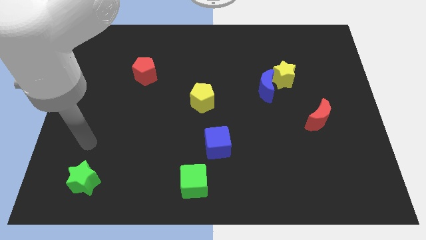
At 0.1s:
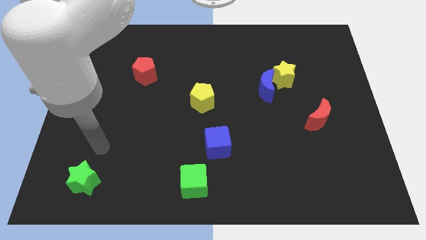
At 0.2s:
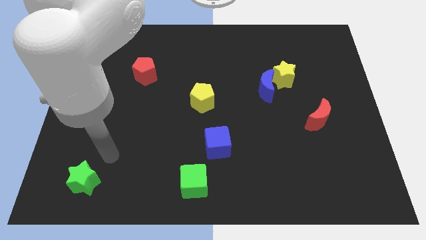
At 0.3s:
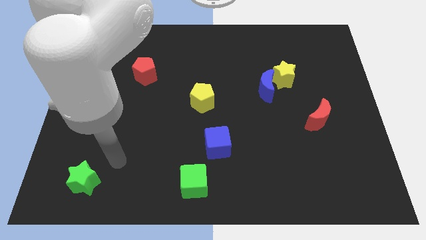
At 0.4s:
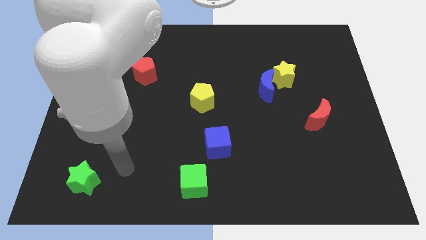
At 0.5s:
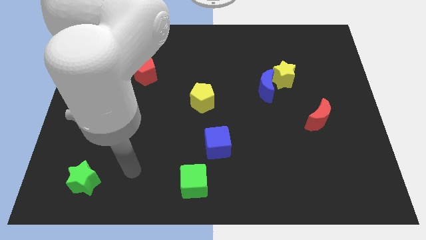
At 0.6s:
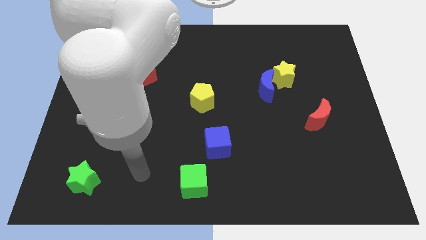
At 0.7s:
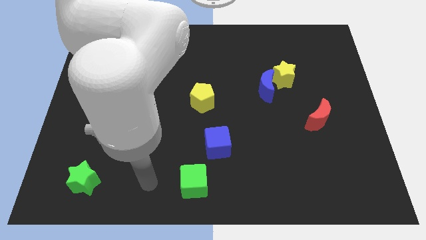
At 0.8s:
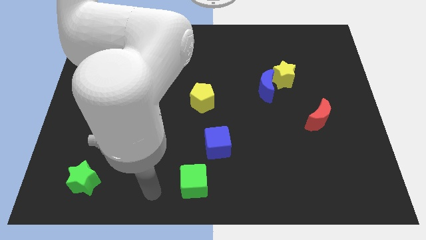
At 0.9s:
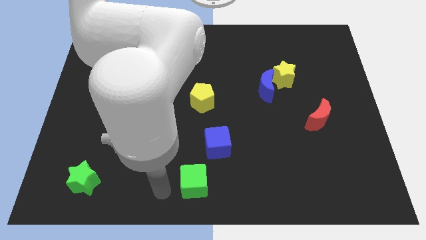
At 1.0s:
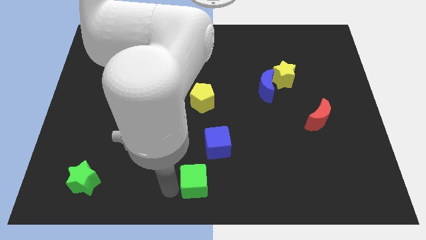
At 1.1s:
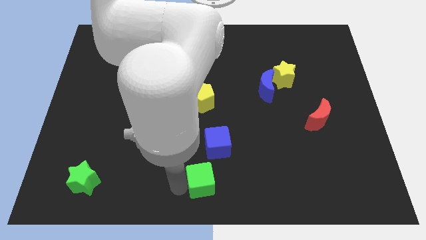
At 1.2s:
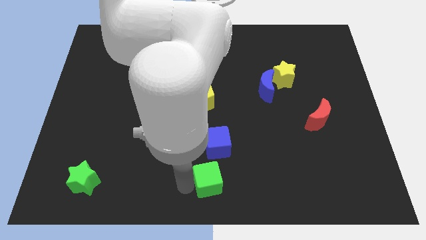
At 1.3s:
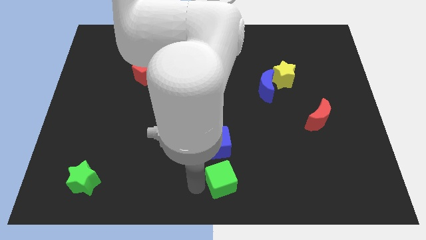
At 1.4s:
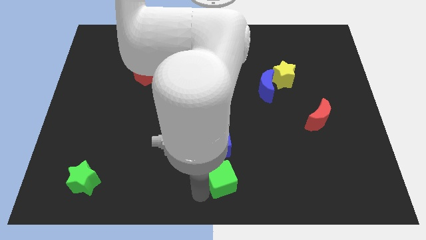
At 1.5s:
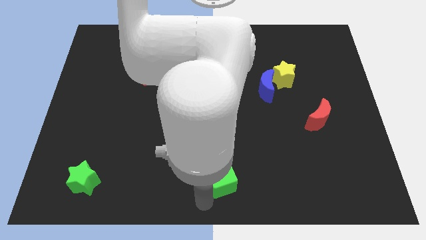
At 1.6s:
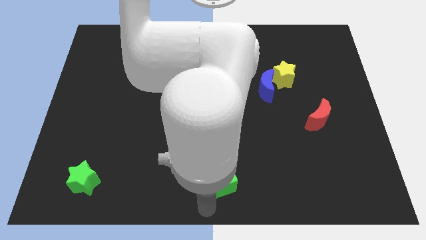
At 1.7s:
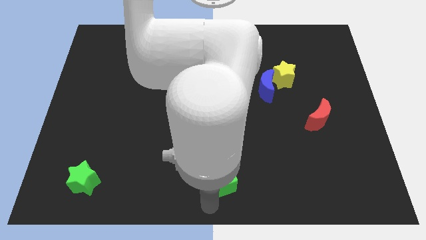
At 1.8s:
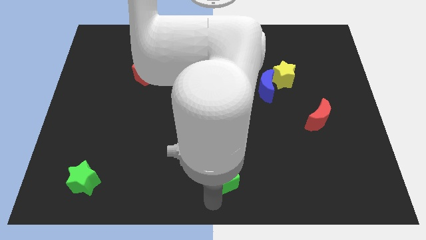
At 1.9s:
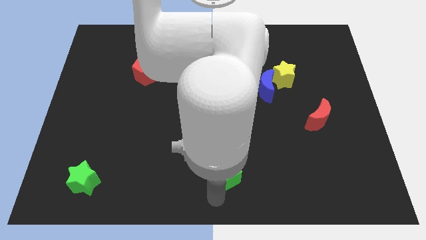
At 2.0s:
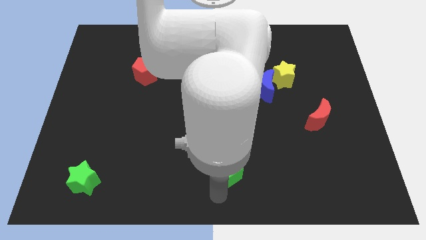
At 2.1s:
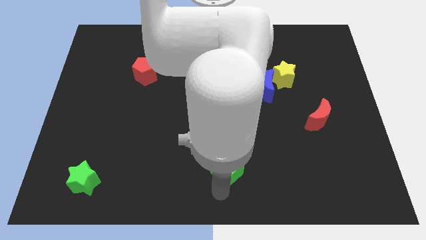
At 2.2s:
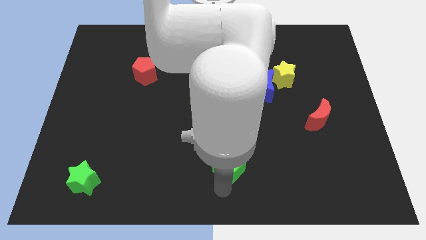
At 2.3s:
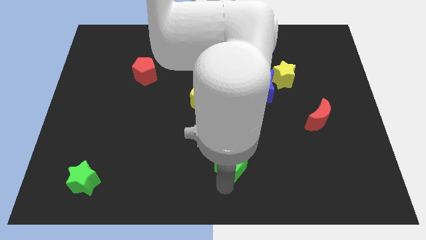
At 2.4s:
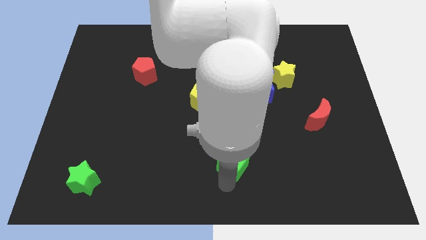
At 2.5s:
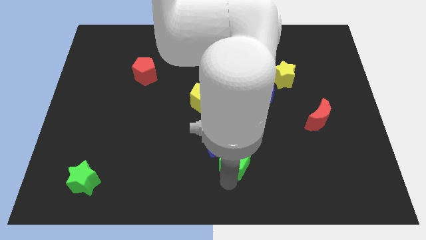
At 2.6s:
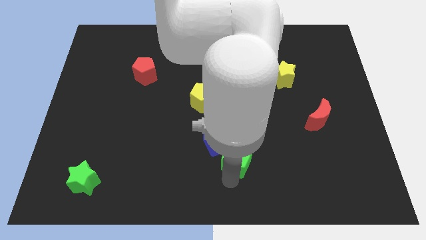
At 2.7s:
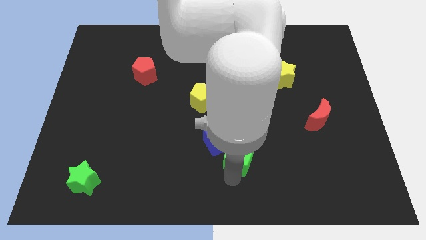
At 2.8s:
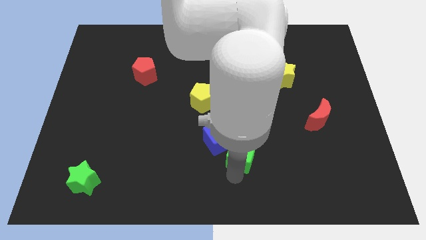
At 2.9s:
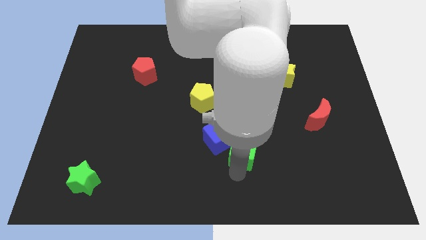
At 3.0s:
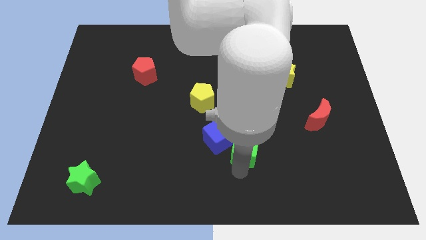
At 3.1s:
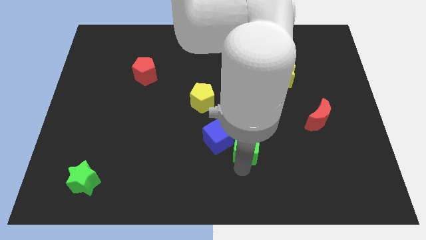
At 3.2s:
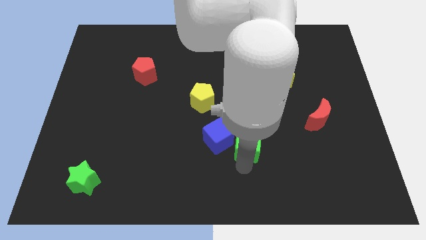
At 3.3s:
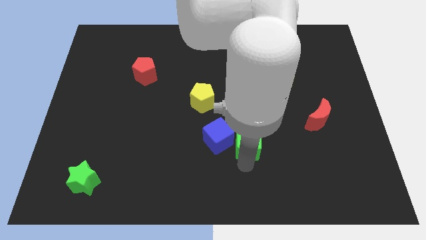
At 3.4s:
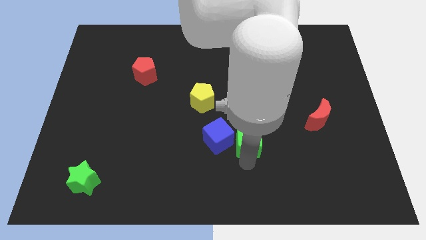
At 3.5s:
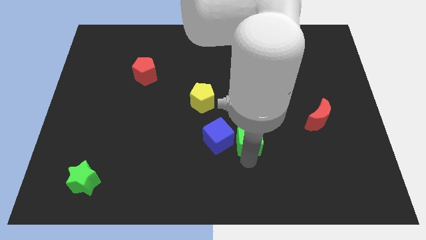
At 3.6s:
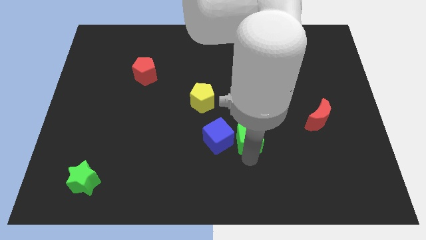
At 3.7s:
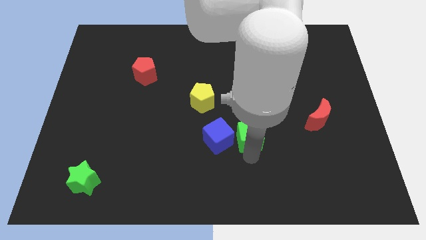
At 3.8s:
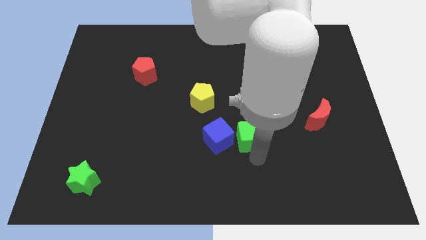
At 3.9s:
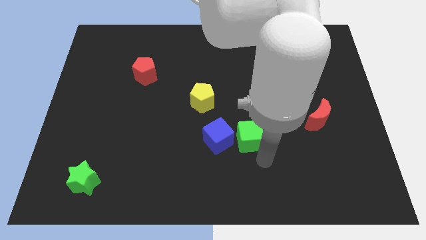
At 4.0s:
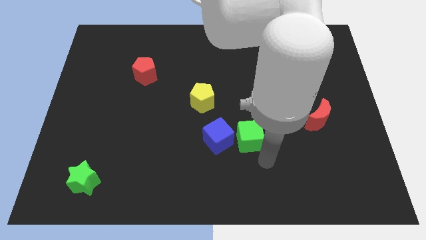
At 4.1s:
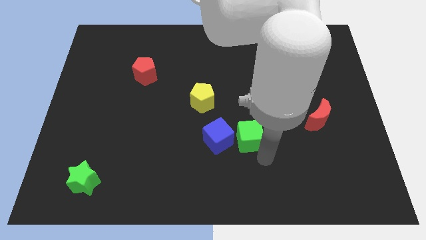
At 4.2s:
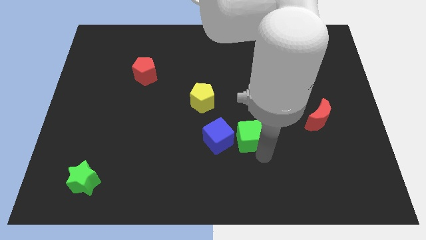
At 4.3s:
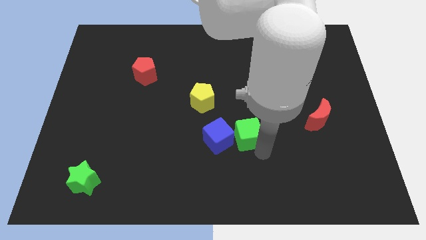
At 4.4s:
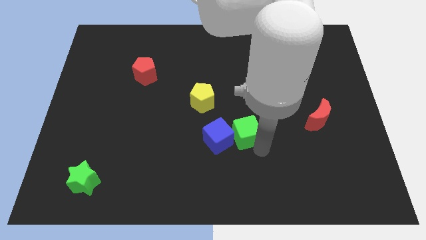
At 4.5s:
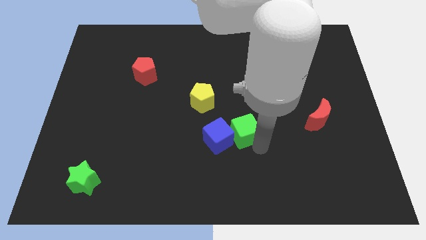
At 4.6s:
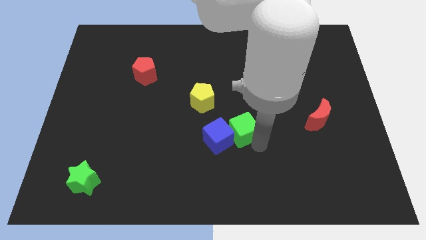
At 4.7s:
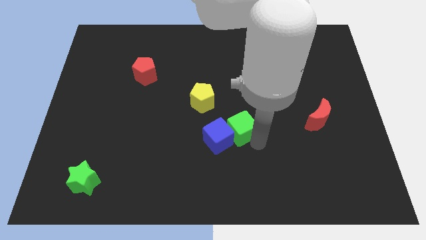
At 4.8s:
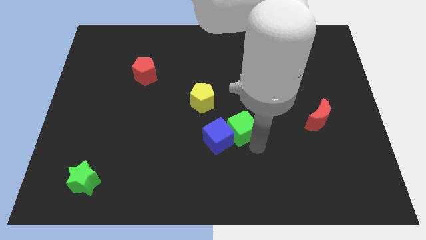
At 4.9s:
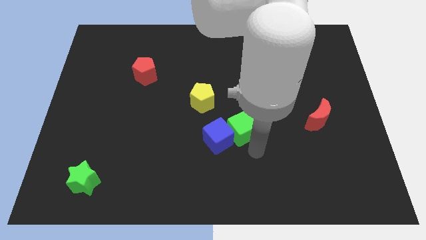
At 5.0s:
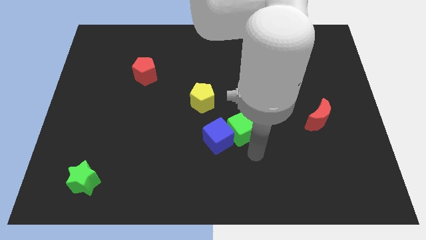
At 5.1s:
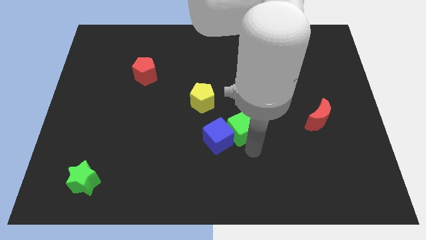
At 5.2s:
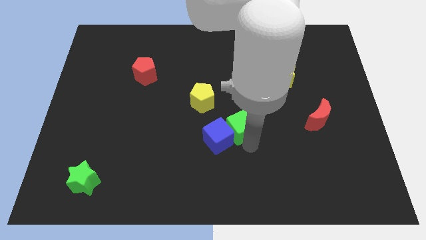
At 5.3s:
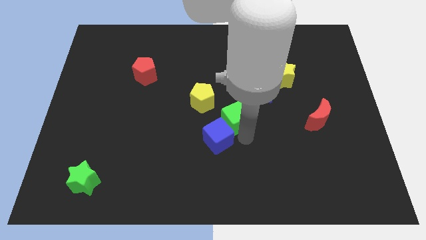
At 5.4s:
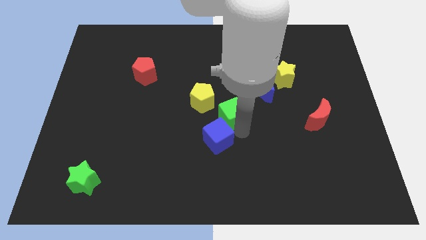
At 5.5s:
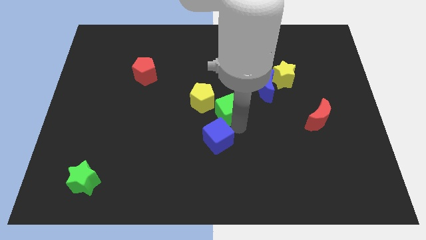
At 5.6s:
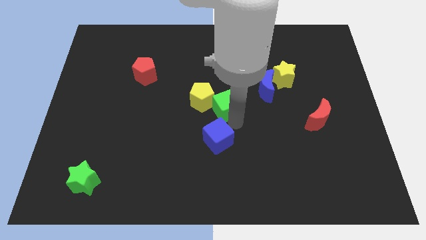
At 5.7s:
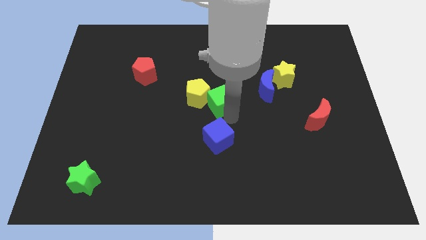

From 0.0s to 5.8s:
put the green cube to the left side of the blue moon

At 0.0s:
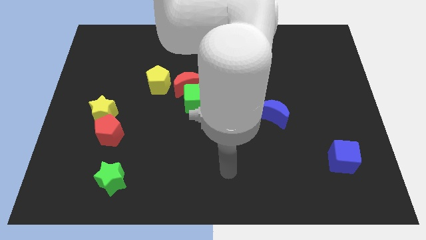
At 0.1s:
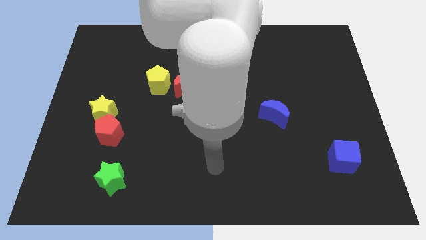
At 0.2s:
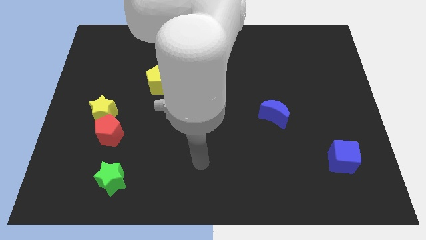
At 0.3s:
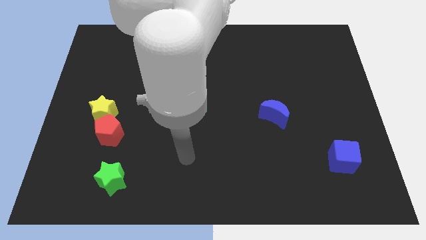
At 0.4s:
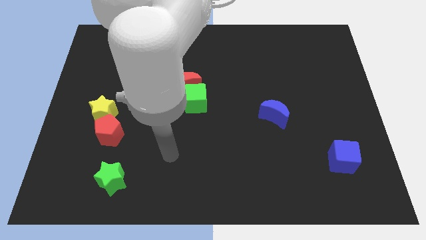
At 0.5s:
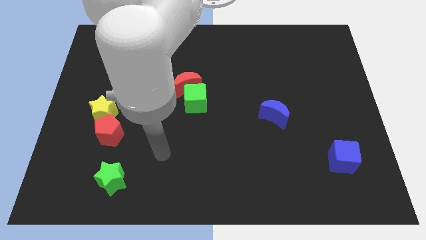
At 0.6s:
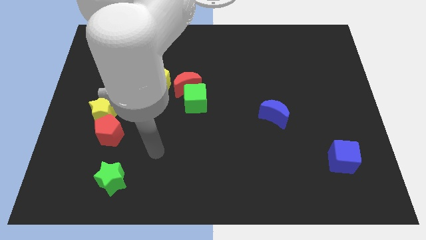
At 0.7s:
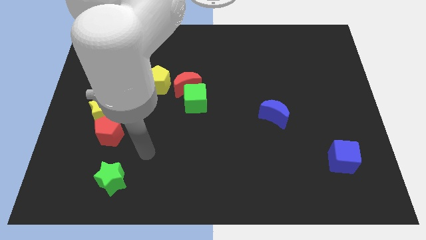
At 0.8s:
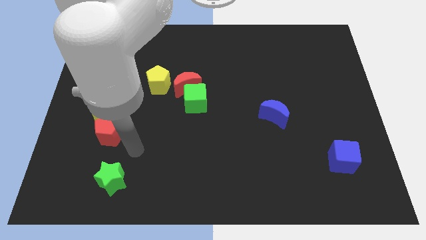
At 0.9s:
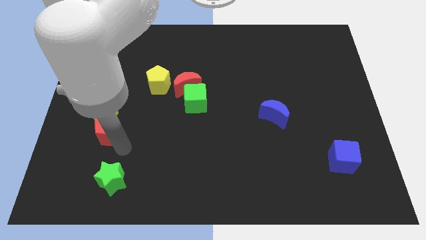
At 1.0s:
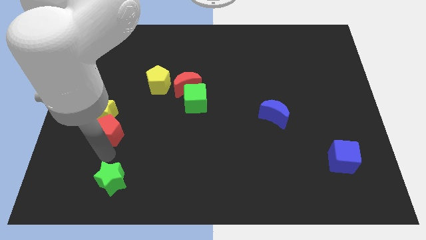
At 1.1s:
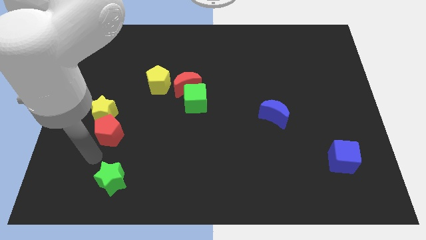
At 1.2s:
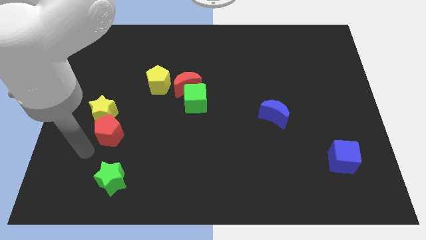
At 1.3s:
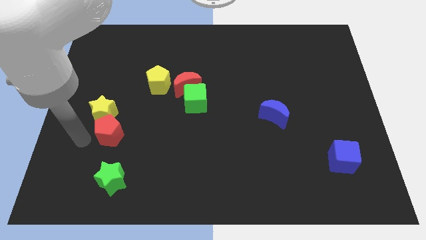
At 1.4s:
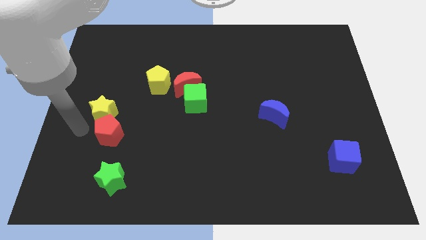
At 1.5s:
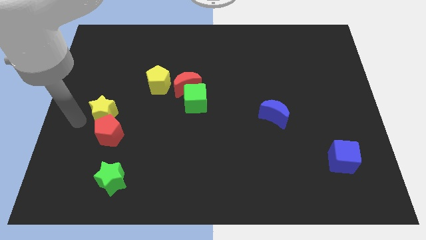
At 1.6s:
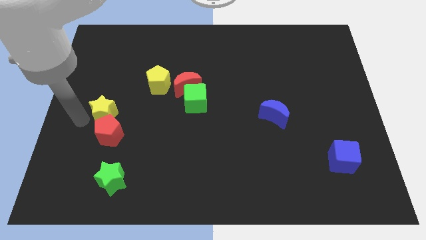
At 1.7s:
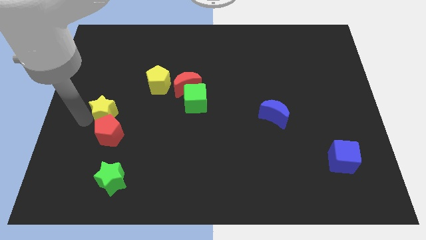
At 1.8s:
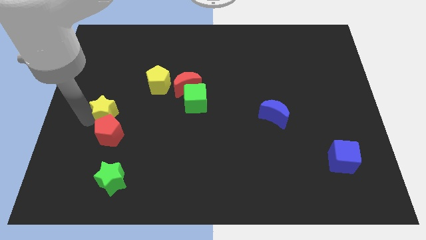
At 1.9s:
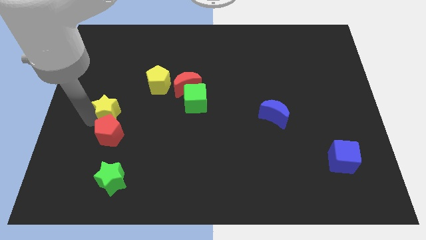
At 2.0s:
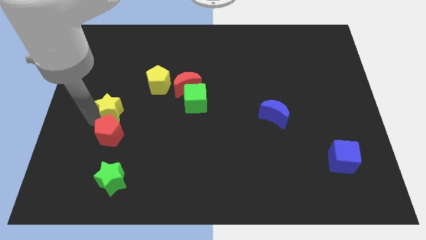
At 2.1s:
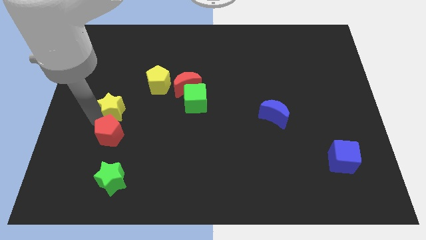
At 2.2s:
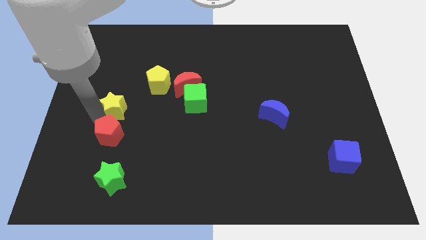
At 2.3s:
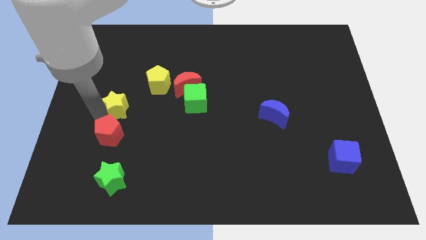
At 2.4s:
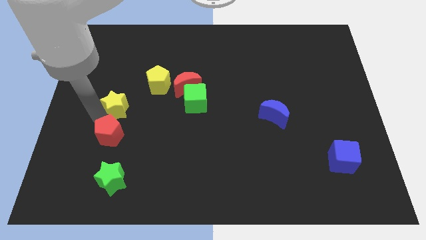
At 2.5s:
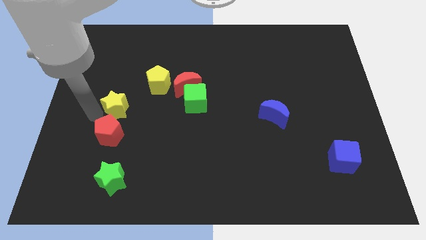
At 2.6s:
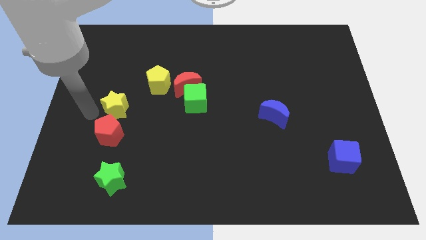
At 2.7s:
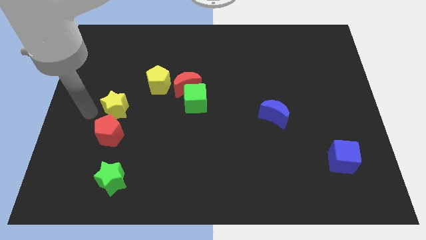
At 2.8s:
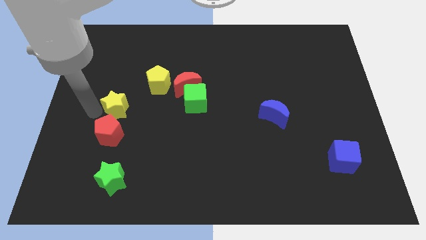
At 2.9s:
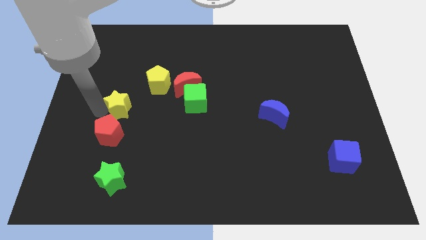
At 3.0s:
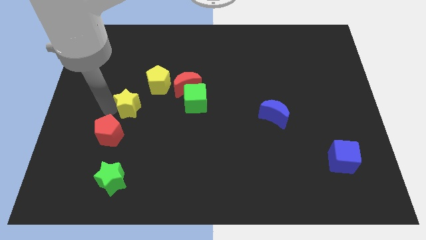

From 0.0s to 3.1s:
slide the yellow star to the left of the green cube
